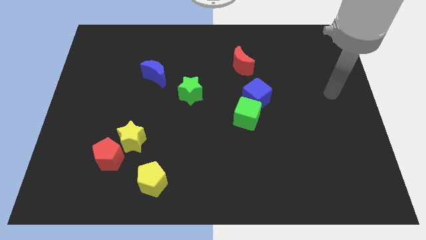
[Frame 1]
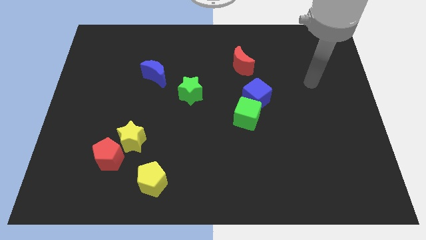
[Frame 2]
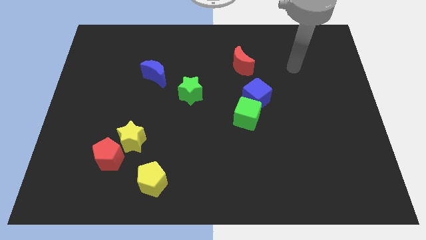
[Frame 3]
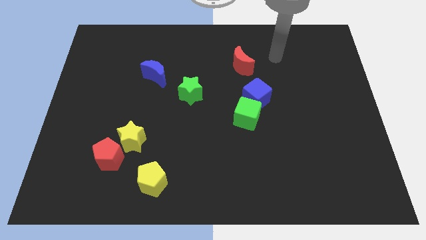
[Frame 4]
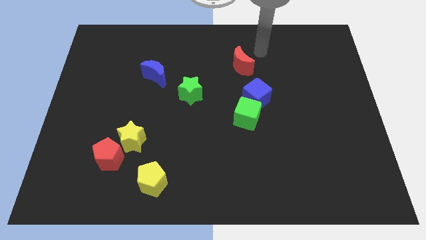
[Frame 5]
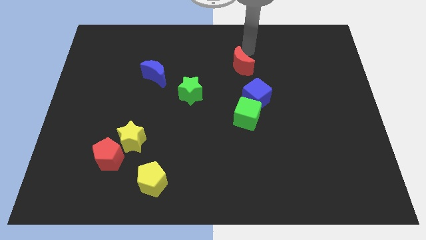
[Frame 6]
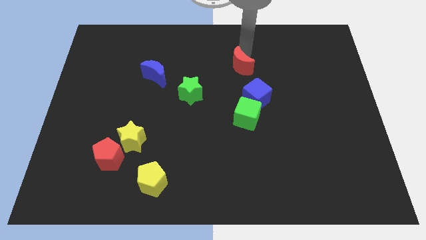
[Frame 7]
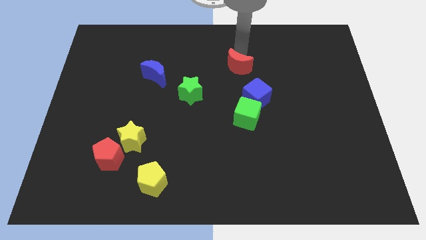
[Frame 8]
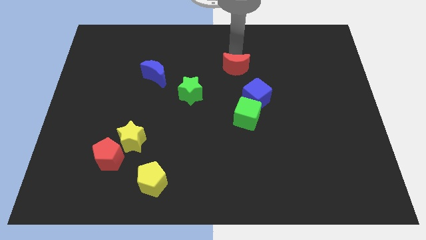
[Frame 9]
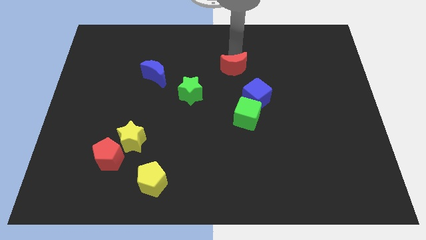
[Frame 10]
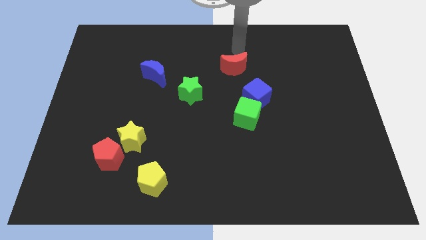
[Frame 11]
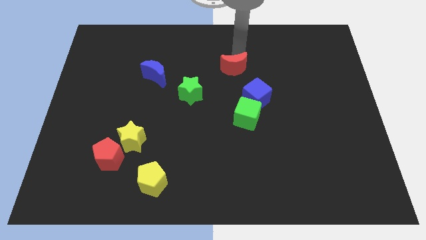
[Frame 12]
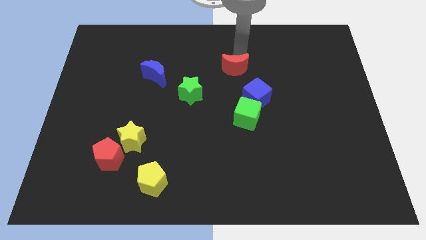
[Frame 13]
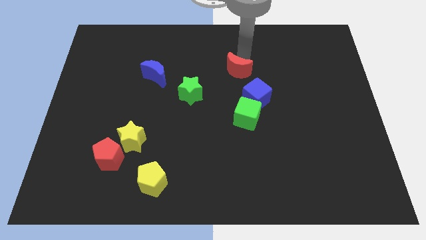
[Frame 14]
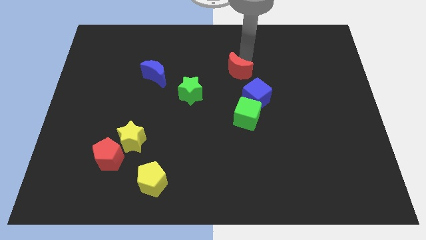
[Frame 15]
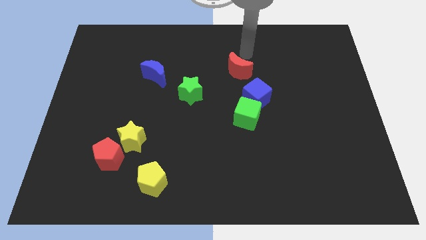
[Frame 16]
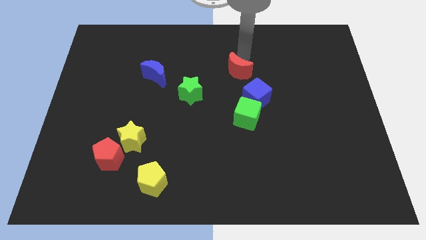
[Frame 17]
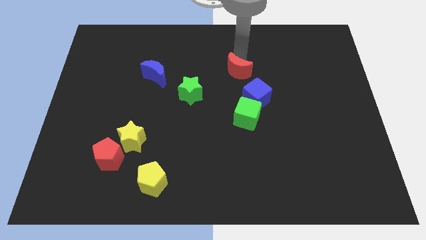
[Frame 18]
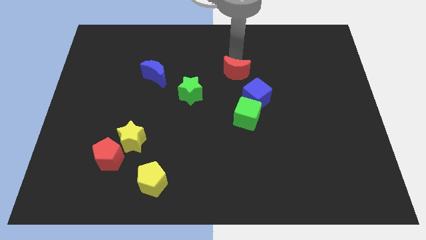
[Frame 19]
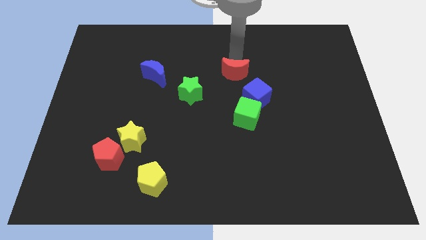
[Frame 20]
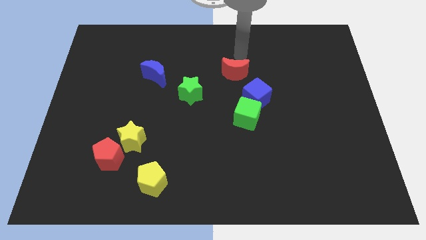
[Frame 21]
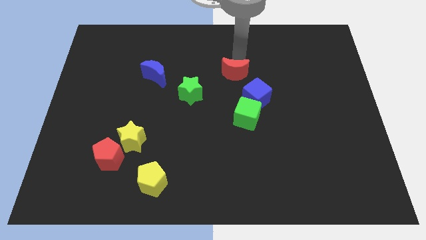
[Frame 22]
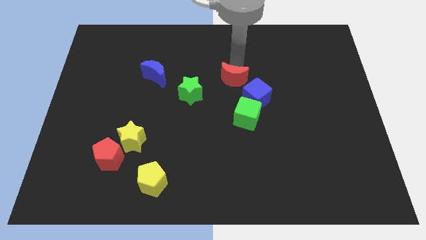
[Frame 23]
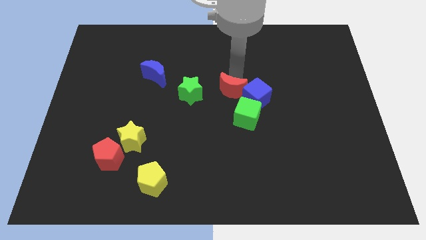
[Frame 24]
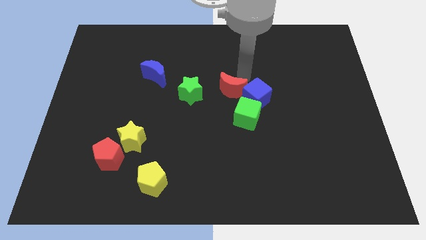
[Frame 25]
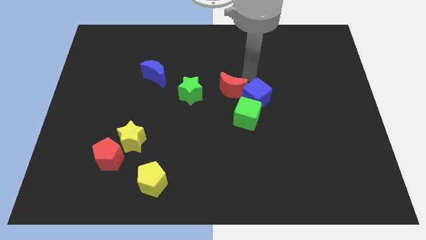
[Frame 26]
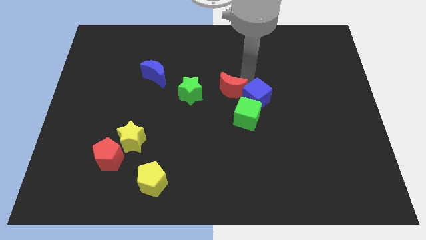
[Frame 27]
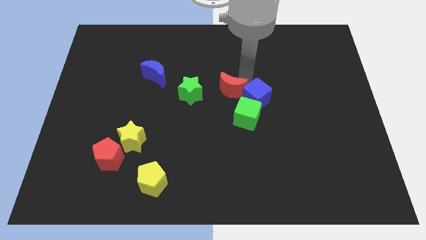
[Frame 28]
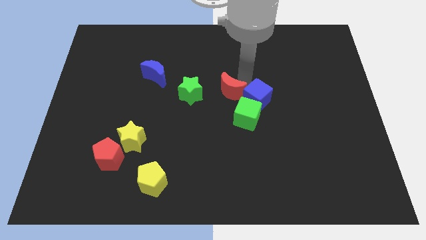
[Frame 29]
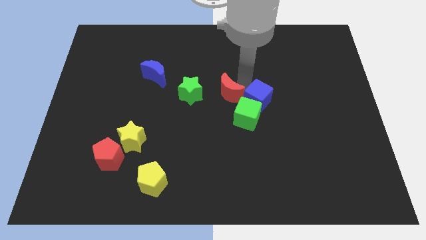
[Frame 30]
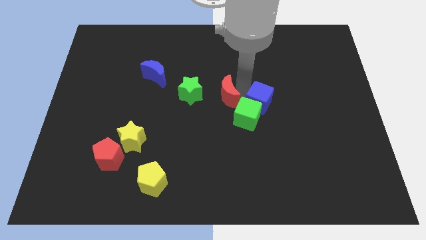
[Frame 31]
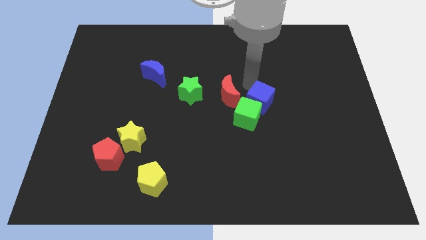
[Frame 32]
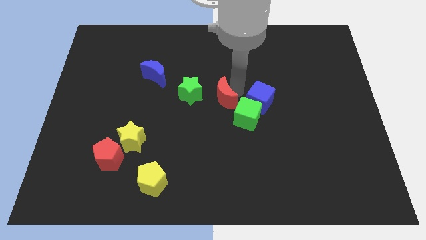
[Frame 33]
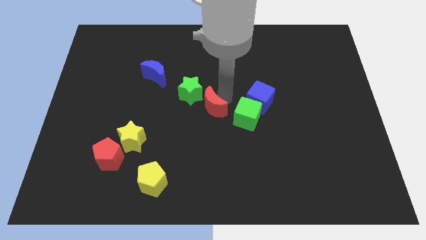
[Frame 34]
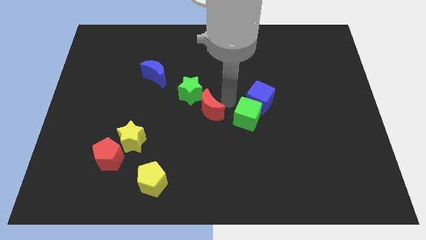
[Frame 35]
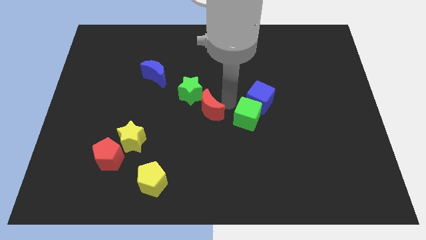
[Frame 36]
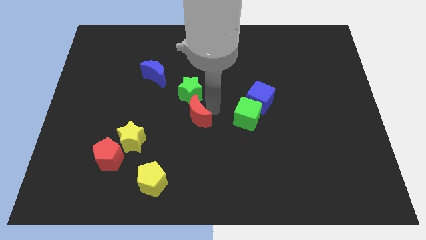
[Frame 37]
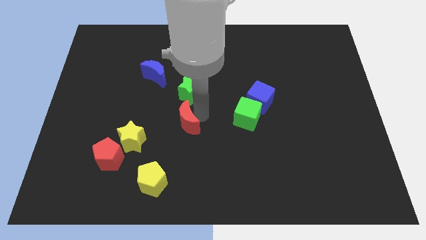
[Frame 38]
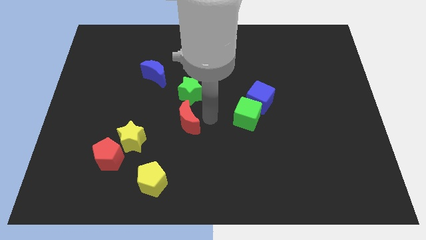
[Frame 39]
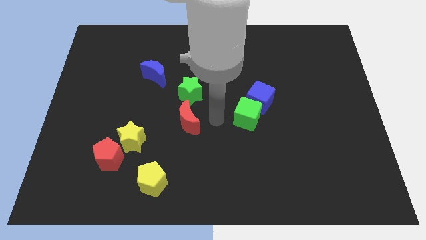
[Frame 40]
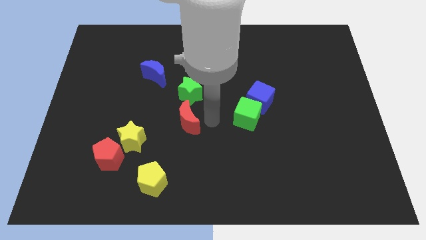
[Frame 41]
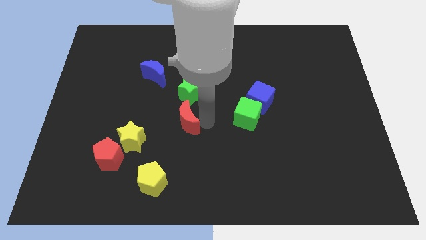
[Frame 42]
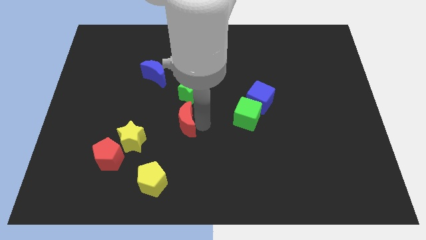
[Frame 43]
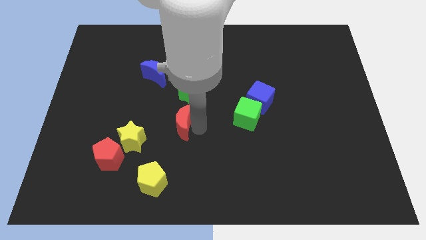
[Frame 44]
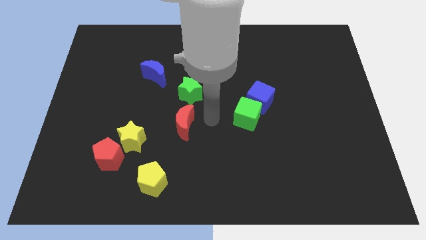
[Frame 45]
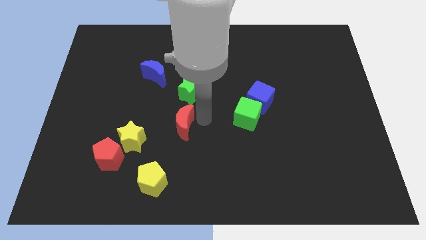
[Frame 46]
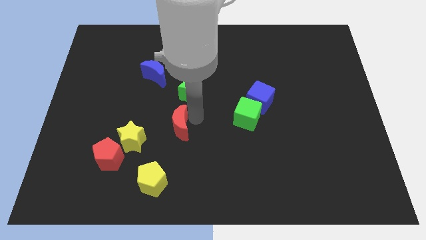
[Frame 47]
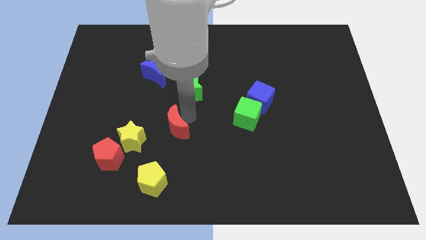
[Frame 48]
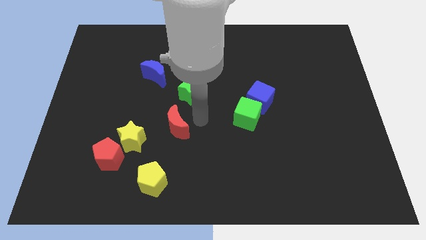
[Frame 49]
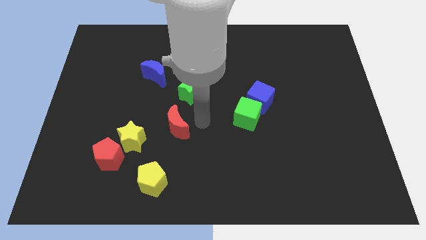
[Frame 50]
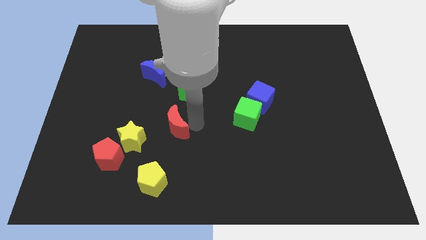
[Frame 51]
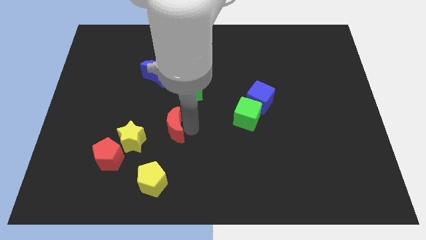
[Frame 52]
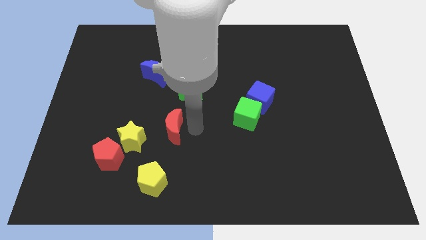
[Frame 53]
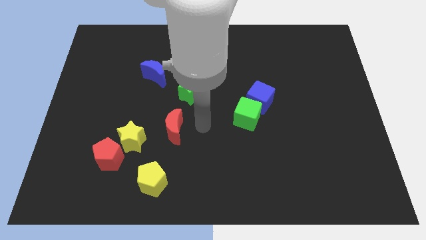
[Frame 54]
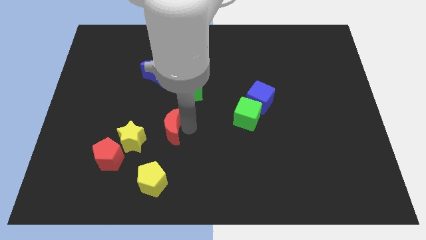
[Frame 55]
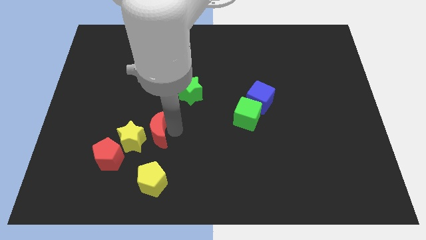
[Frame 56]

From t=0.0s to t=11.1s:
push the red moon close to the yellow star

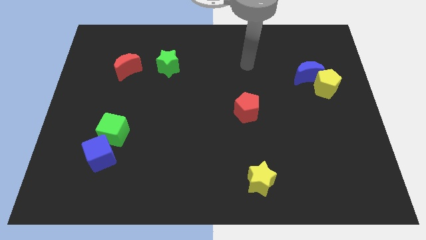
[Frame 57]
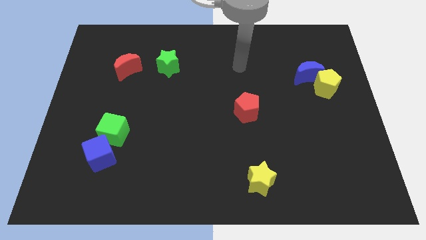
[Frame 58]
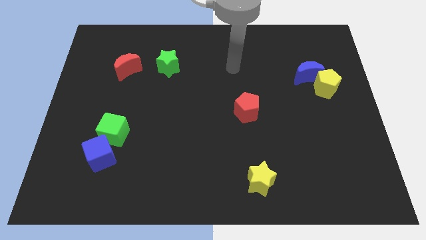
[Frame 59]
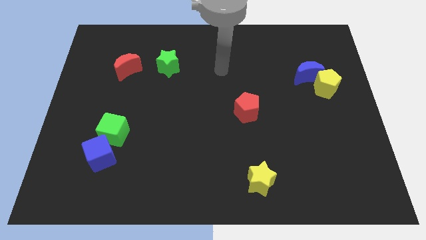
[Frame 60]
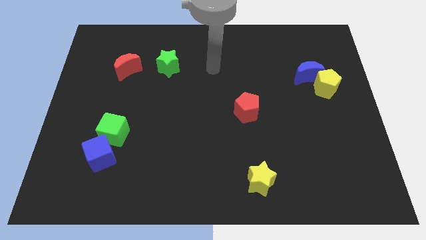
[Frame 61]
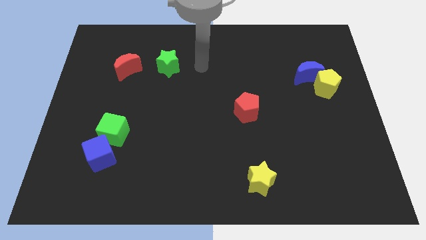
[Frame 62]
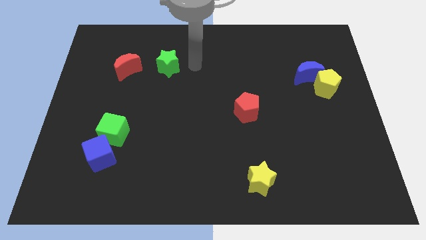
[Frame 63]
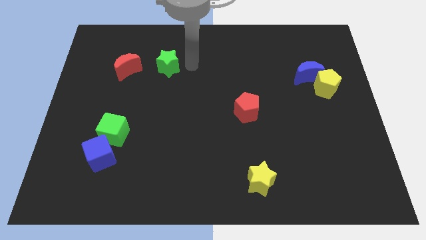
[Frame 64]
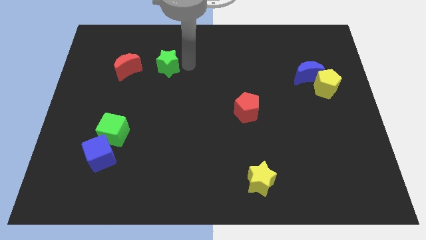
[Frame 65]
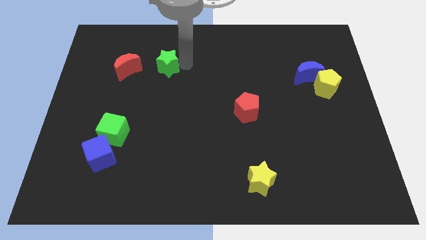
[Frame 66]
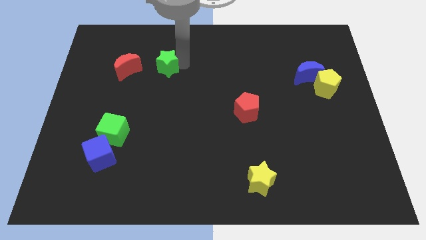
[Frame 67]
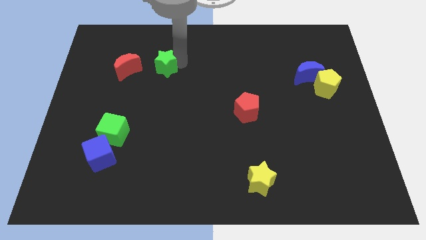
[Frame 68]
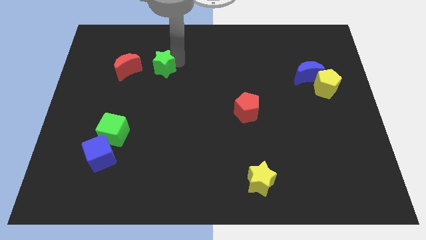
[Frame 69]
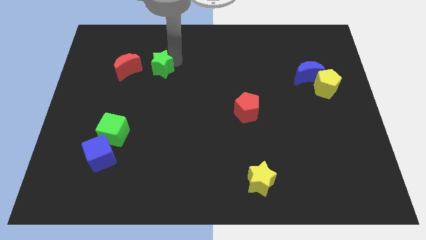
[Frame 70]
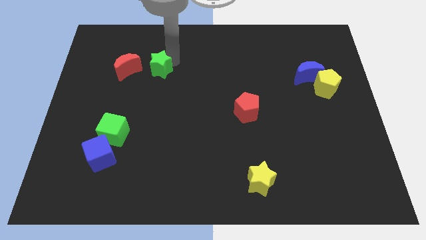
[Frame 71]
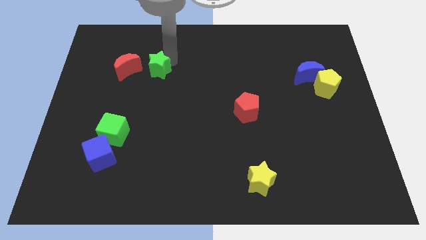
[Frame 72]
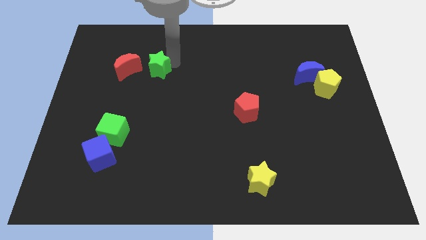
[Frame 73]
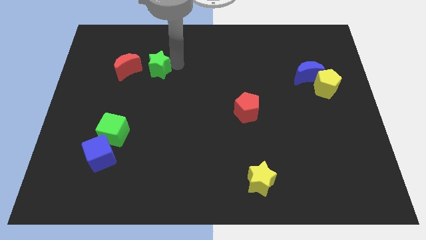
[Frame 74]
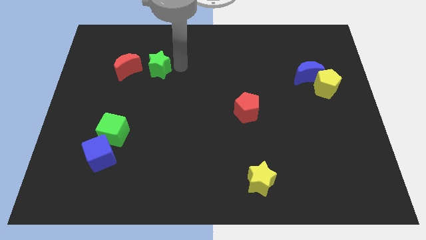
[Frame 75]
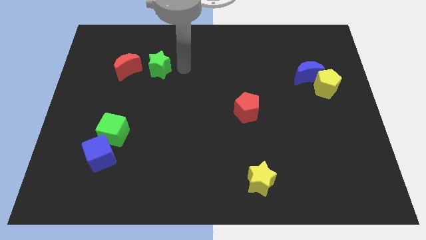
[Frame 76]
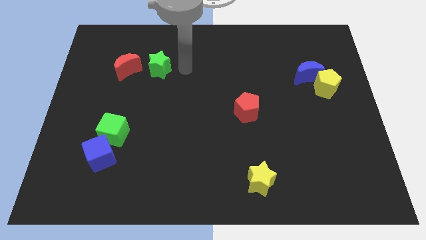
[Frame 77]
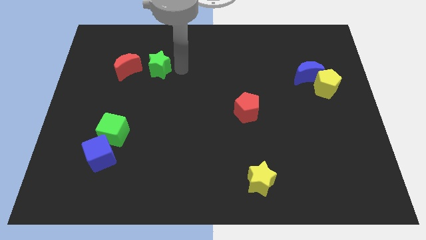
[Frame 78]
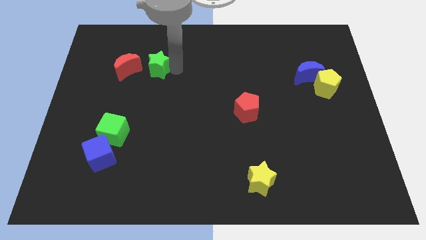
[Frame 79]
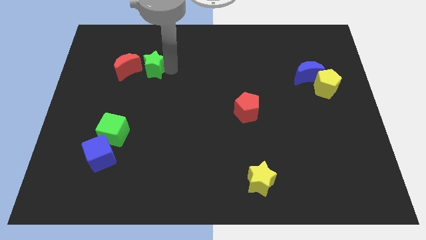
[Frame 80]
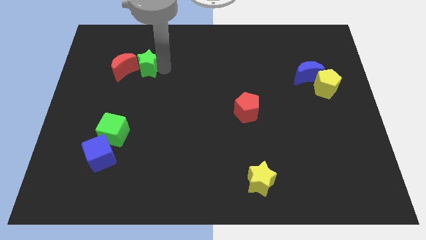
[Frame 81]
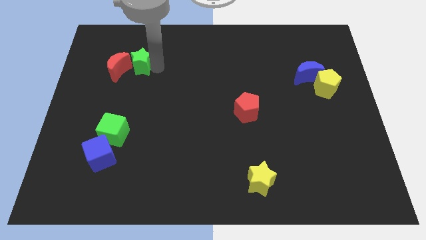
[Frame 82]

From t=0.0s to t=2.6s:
put the green star to the red moon
